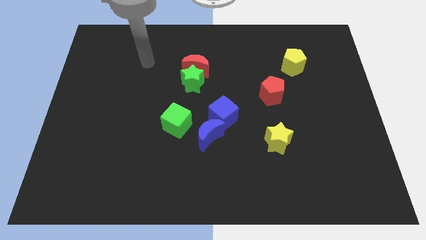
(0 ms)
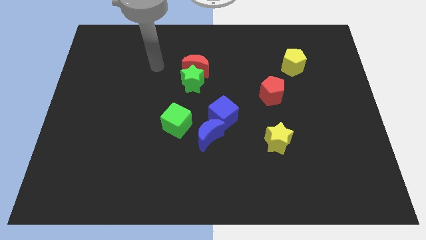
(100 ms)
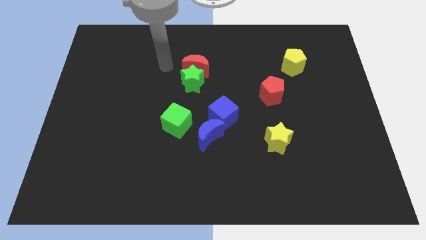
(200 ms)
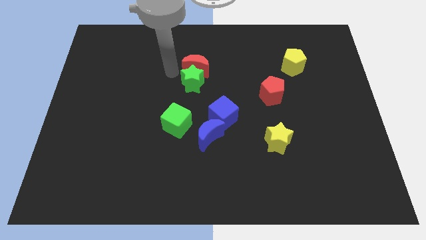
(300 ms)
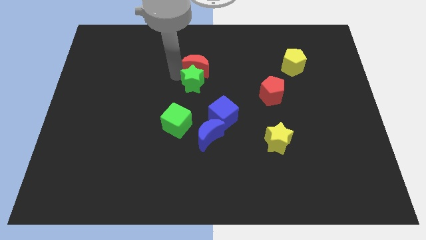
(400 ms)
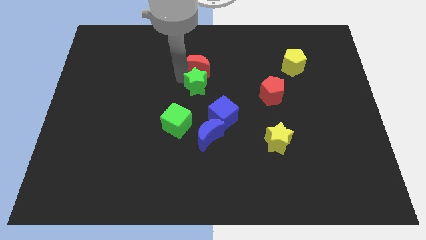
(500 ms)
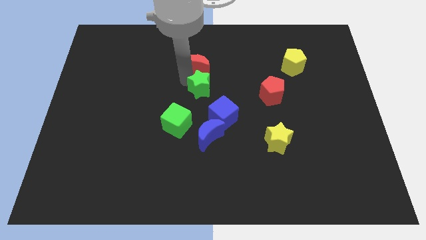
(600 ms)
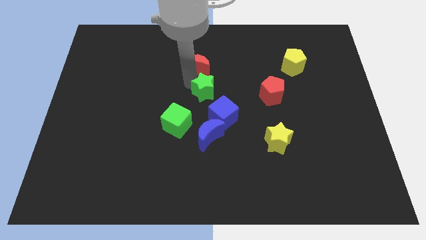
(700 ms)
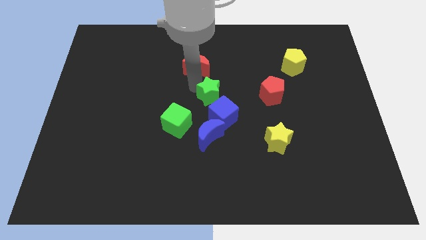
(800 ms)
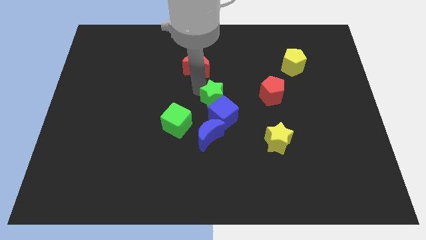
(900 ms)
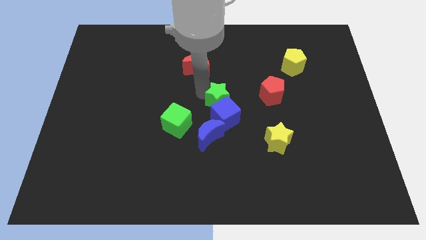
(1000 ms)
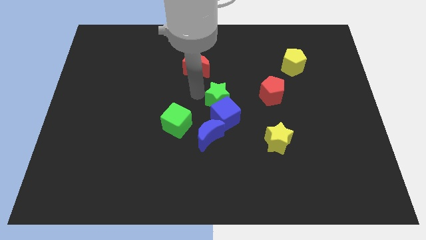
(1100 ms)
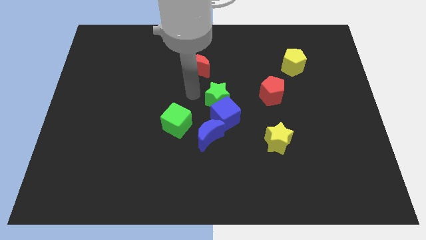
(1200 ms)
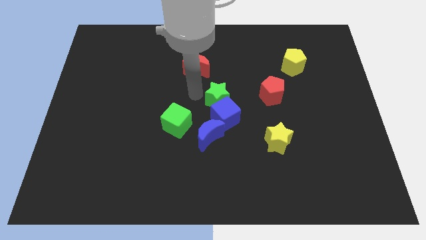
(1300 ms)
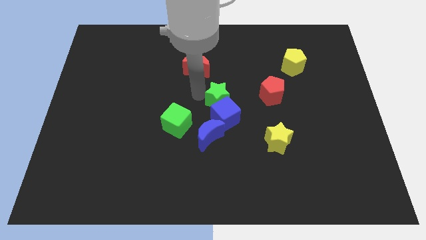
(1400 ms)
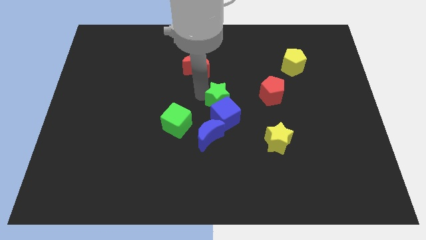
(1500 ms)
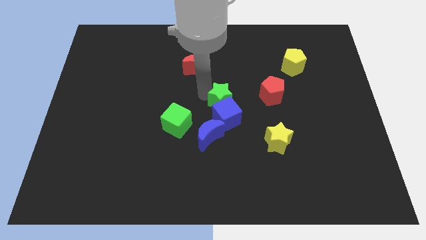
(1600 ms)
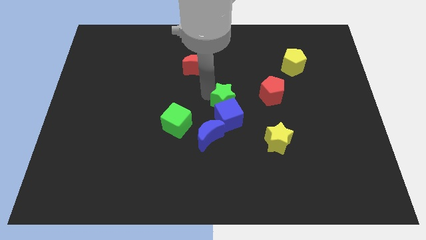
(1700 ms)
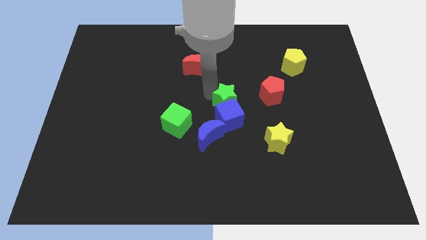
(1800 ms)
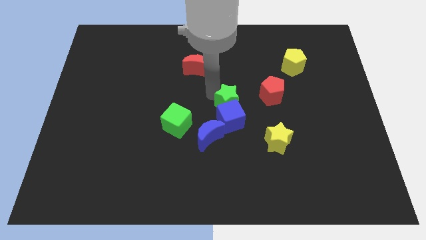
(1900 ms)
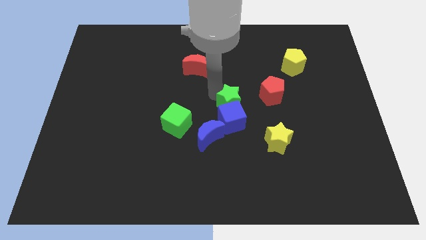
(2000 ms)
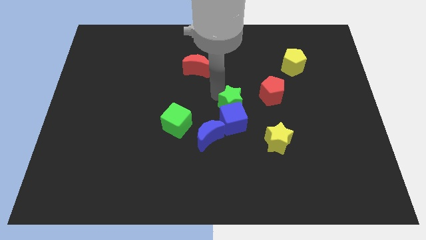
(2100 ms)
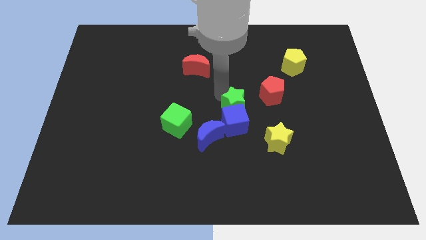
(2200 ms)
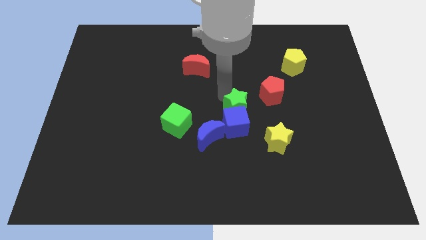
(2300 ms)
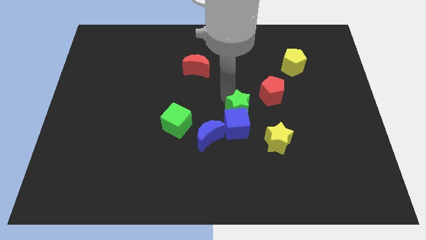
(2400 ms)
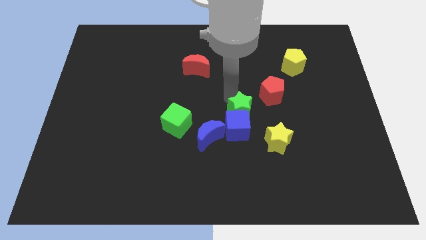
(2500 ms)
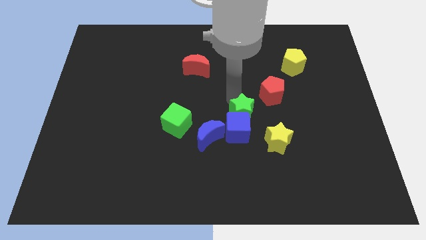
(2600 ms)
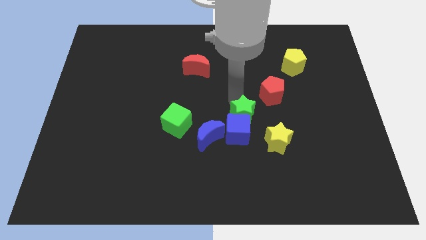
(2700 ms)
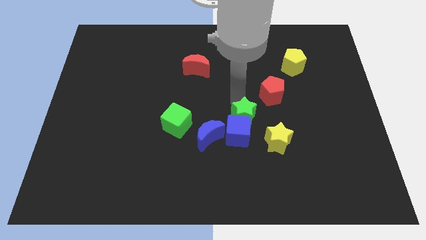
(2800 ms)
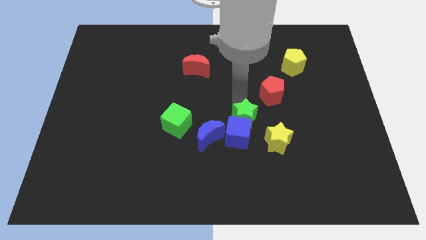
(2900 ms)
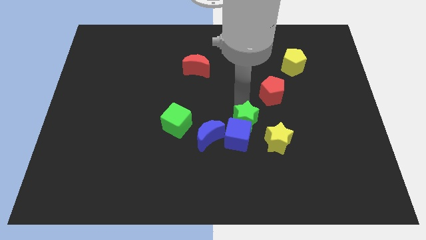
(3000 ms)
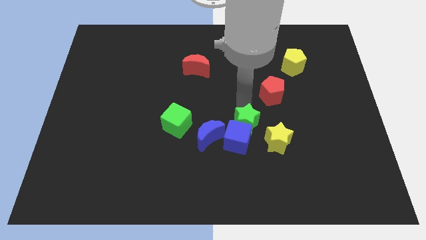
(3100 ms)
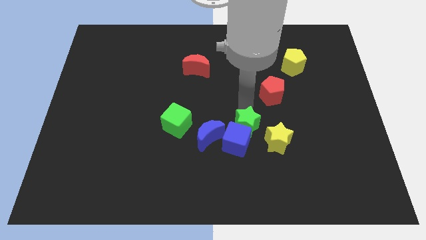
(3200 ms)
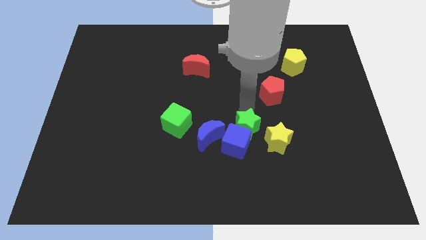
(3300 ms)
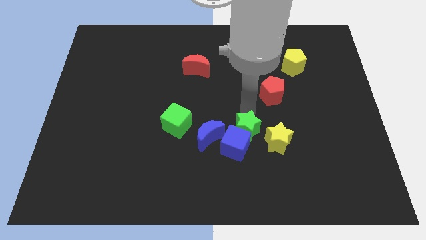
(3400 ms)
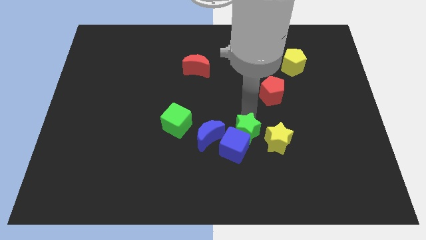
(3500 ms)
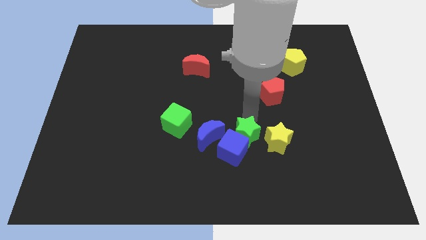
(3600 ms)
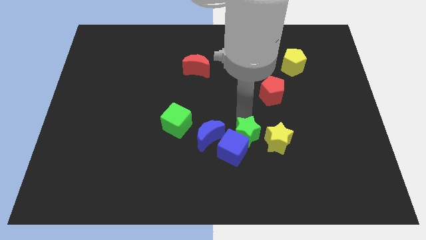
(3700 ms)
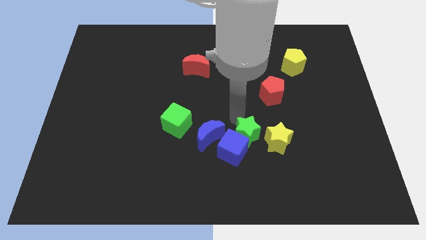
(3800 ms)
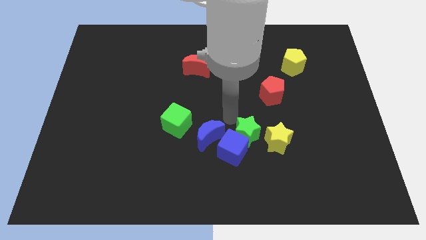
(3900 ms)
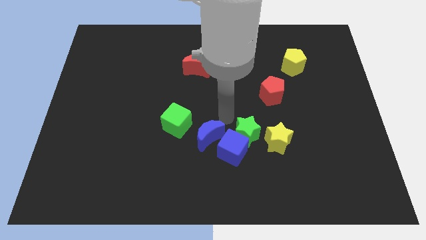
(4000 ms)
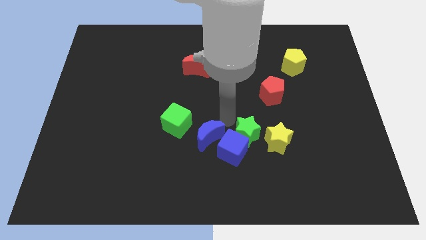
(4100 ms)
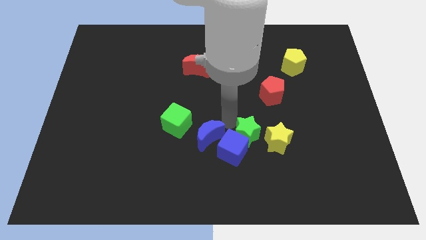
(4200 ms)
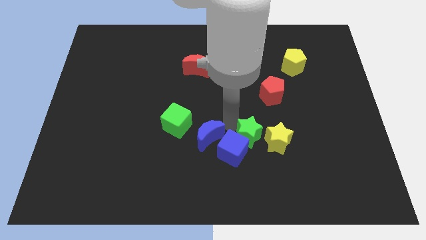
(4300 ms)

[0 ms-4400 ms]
slide the green star downwards and to the right

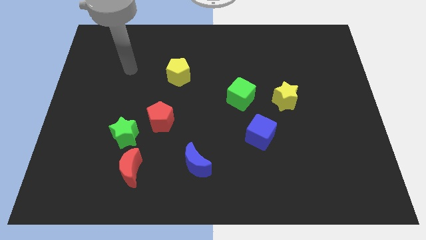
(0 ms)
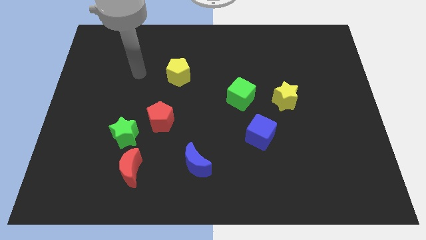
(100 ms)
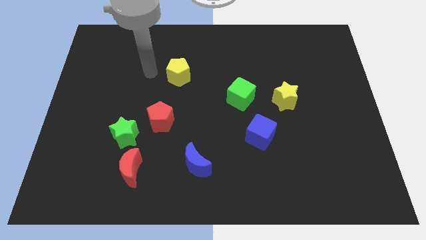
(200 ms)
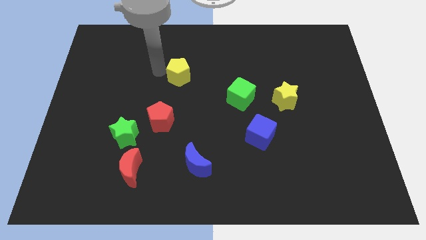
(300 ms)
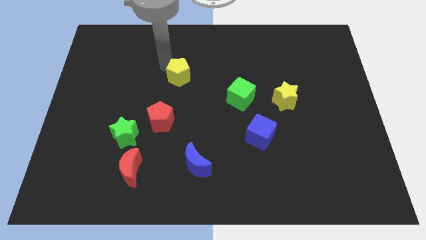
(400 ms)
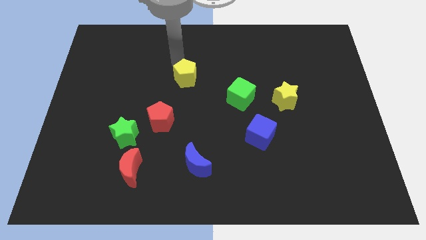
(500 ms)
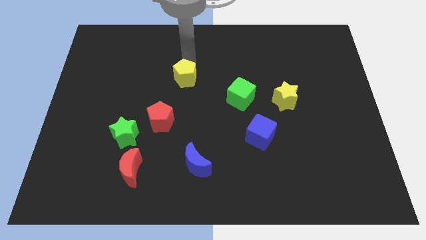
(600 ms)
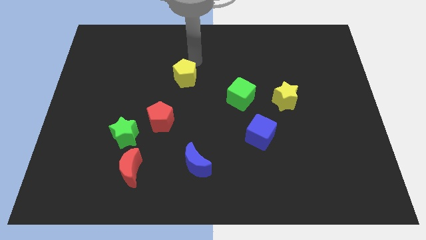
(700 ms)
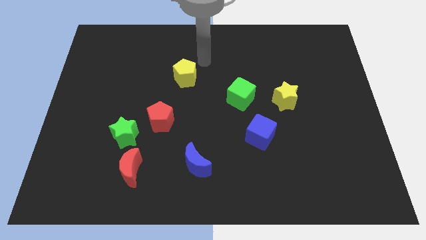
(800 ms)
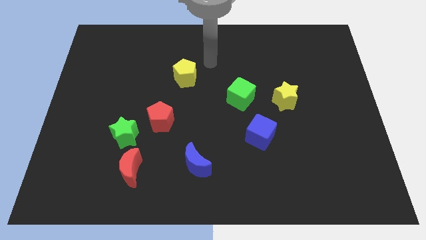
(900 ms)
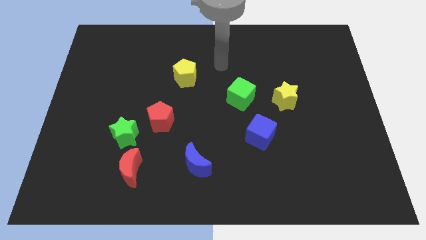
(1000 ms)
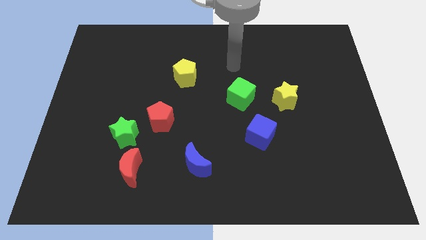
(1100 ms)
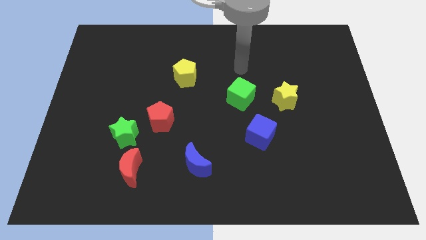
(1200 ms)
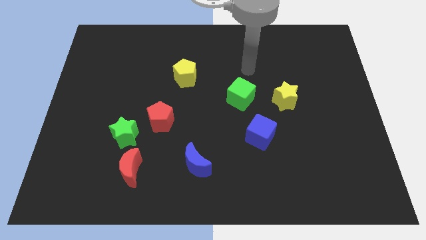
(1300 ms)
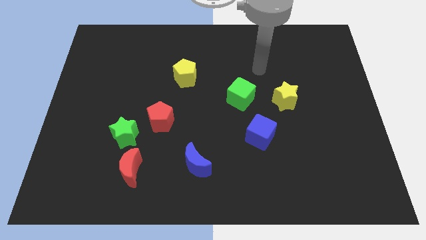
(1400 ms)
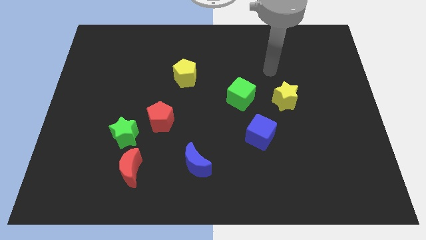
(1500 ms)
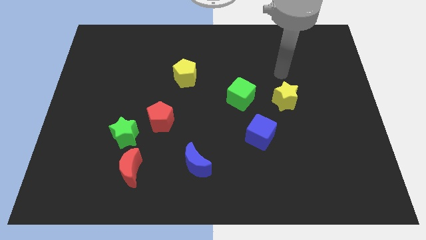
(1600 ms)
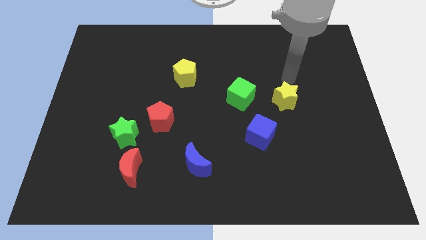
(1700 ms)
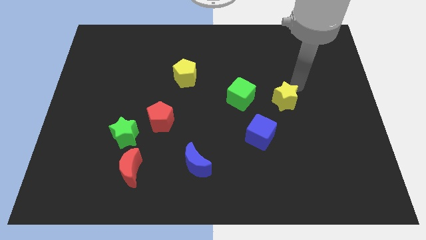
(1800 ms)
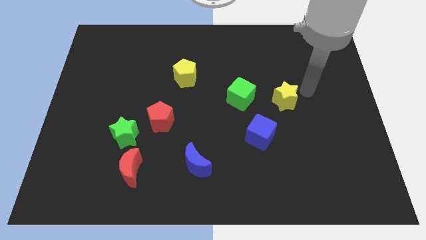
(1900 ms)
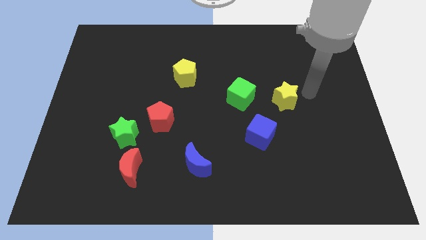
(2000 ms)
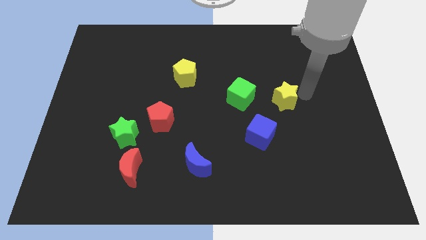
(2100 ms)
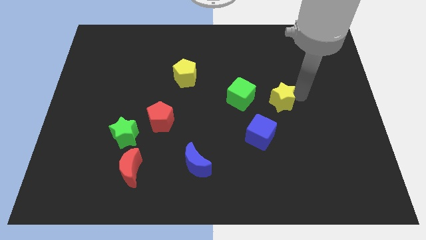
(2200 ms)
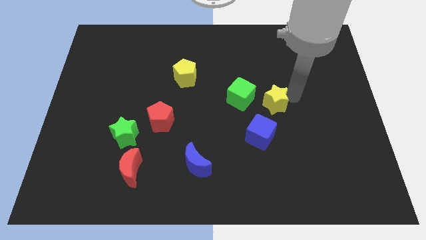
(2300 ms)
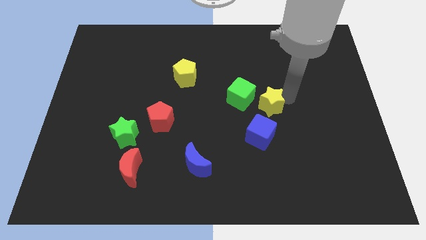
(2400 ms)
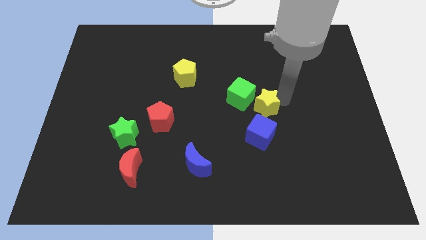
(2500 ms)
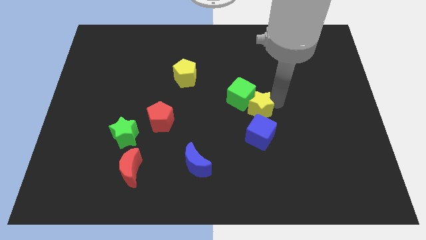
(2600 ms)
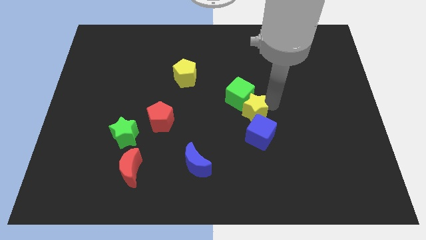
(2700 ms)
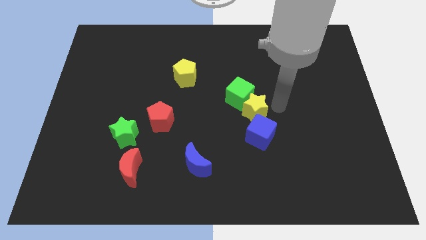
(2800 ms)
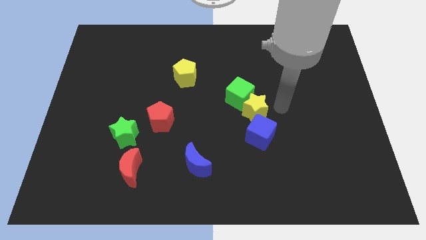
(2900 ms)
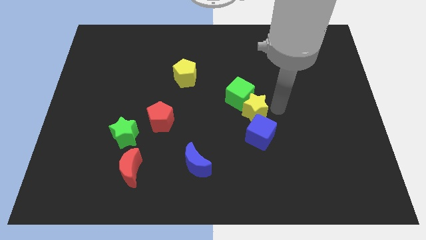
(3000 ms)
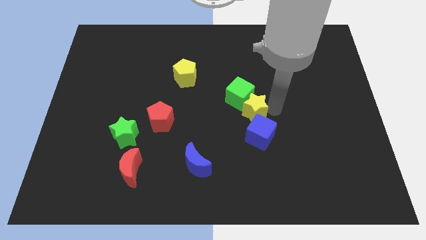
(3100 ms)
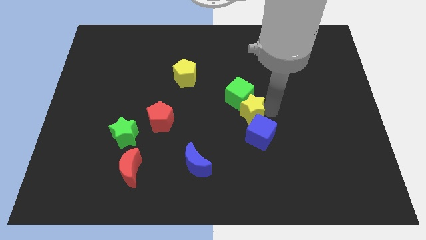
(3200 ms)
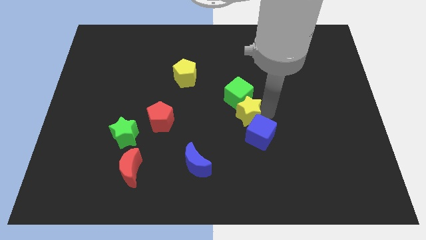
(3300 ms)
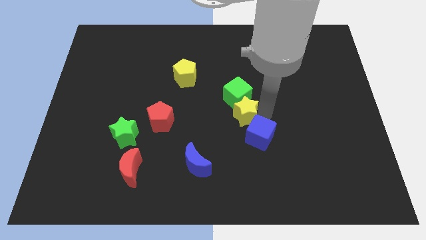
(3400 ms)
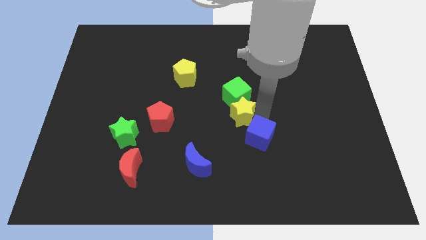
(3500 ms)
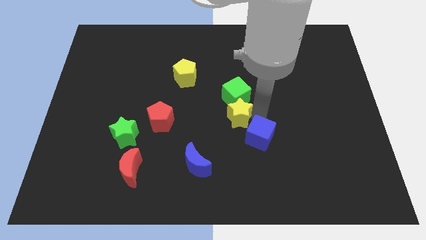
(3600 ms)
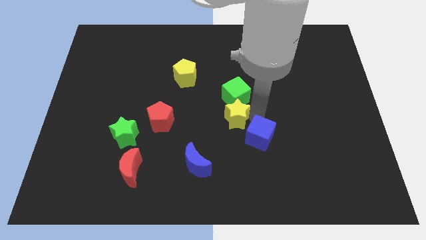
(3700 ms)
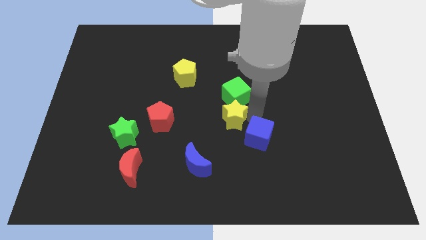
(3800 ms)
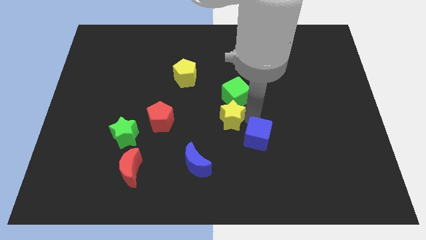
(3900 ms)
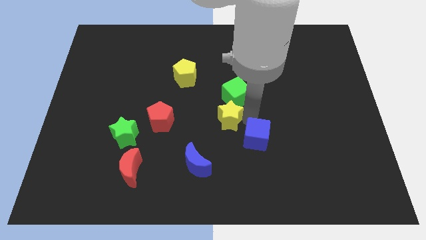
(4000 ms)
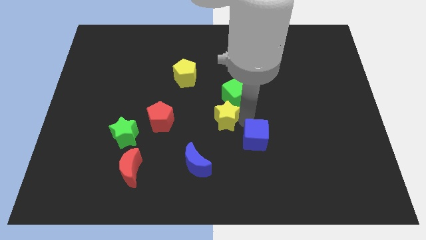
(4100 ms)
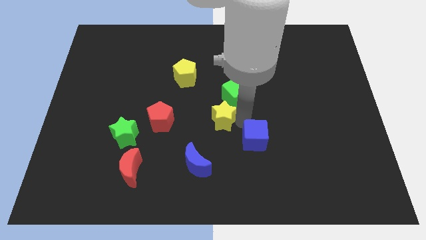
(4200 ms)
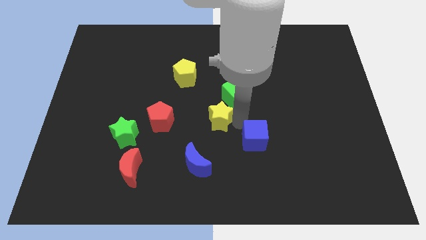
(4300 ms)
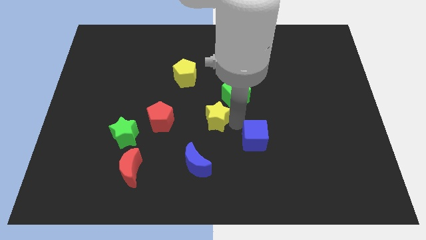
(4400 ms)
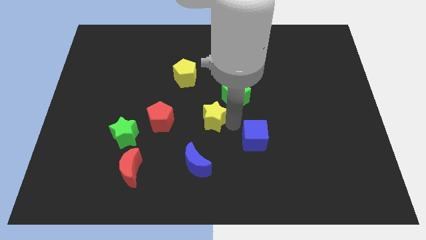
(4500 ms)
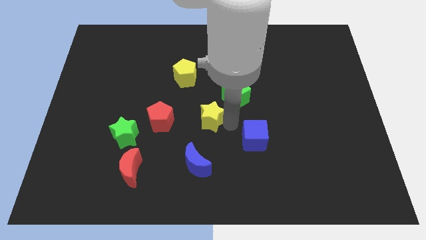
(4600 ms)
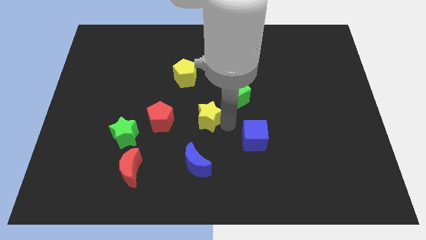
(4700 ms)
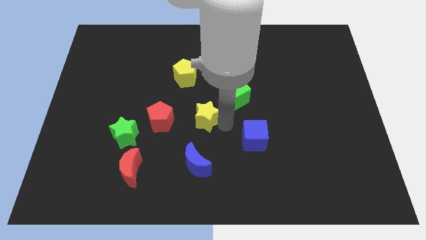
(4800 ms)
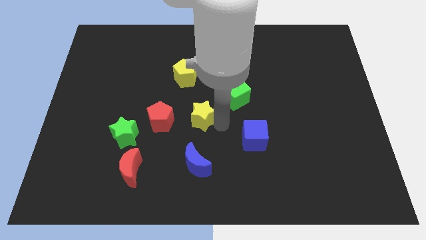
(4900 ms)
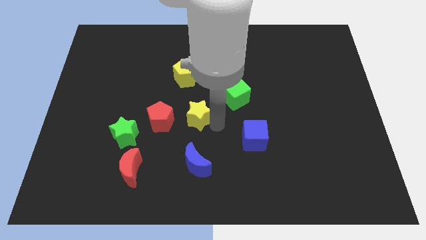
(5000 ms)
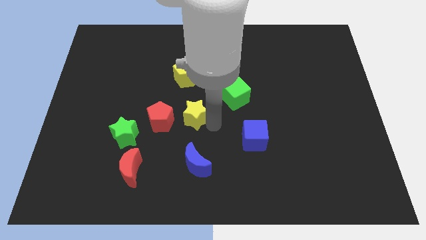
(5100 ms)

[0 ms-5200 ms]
move the yellow star left
